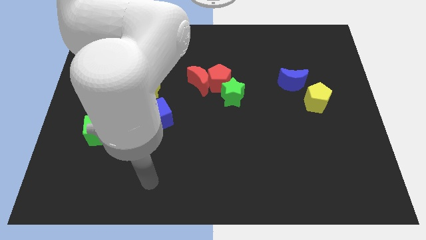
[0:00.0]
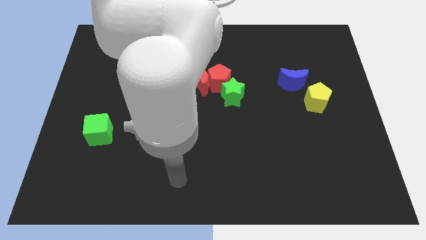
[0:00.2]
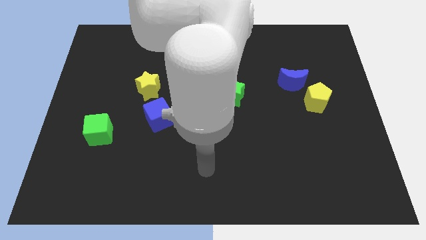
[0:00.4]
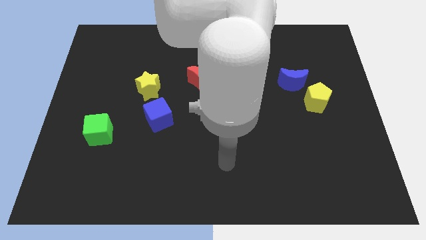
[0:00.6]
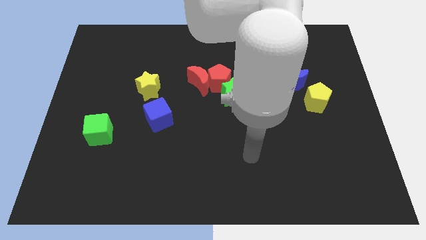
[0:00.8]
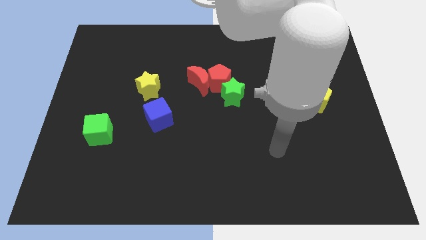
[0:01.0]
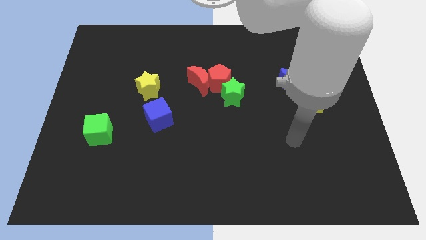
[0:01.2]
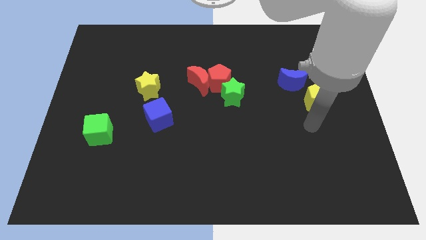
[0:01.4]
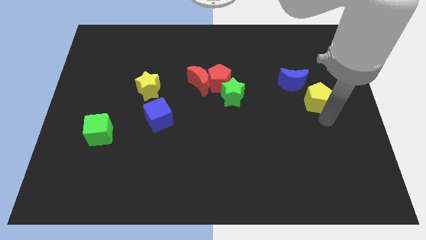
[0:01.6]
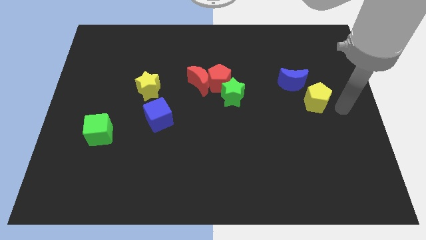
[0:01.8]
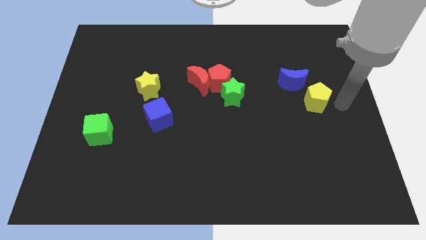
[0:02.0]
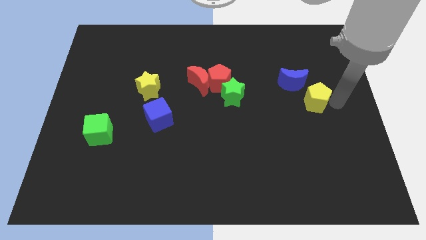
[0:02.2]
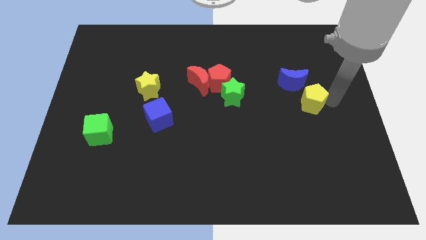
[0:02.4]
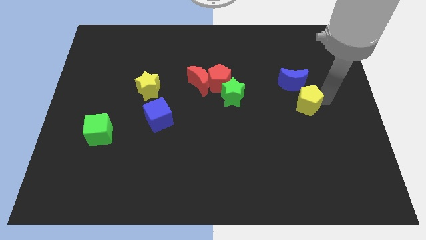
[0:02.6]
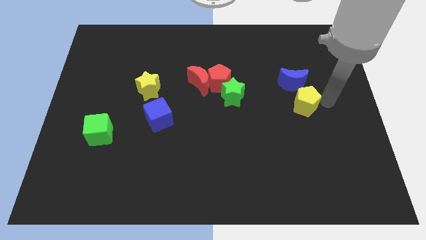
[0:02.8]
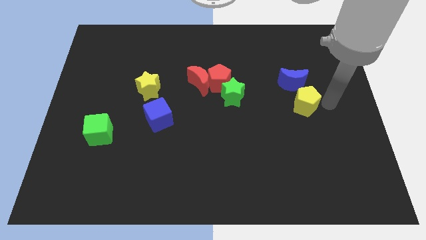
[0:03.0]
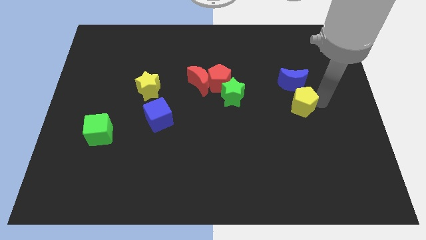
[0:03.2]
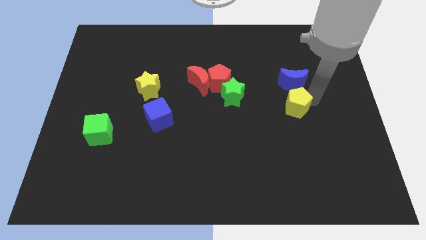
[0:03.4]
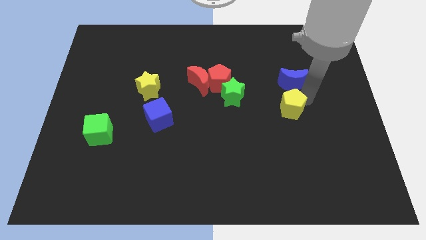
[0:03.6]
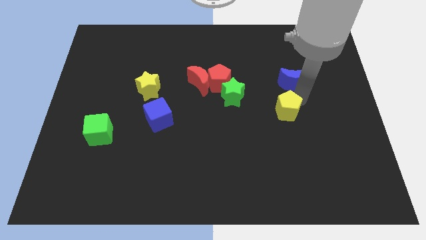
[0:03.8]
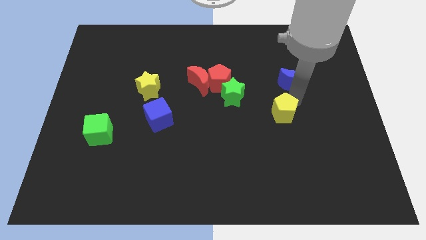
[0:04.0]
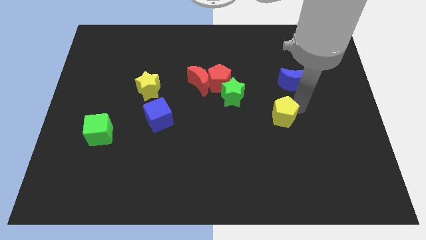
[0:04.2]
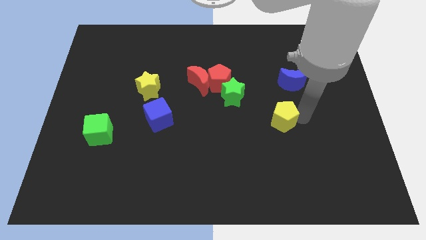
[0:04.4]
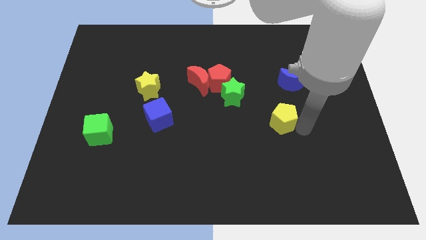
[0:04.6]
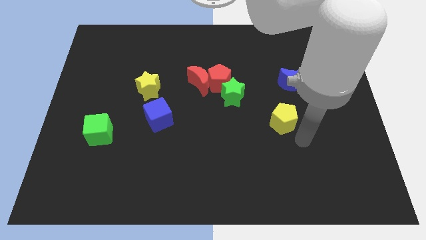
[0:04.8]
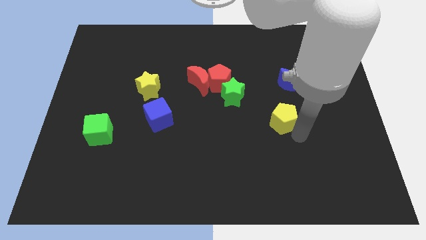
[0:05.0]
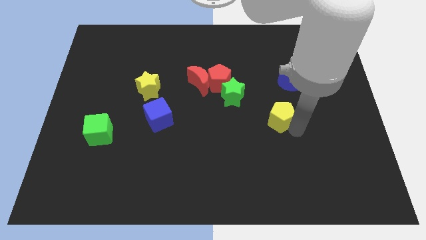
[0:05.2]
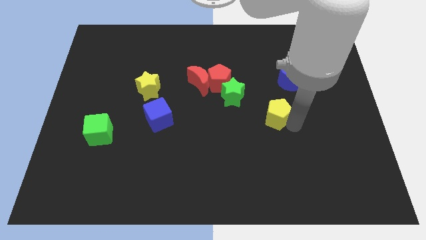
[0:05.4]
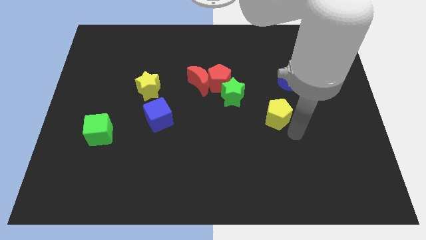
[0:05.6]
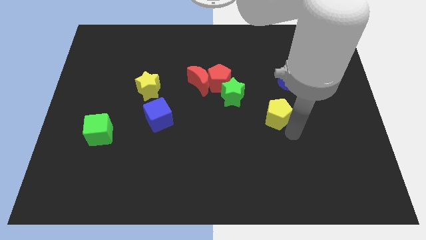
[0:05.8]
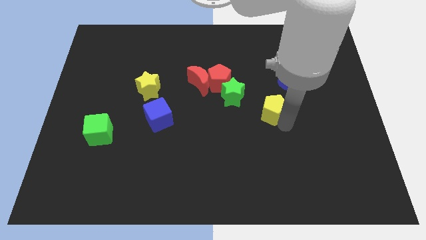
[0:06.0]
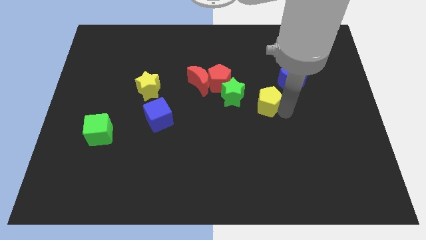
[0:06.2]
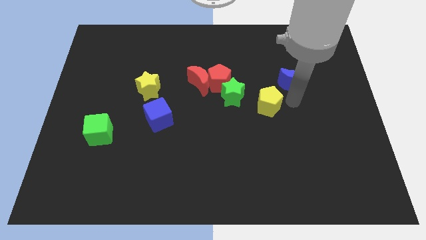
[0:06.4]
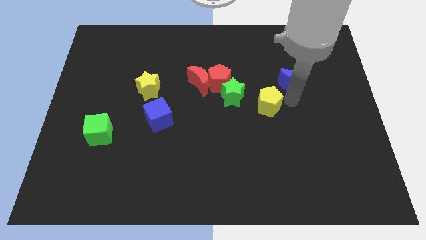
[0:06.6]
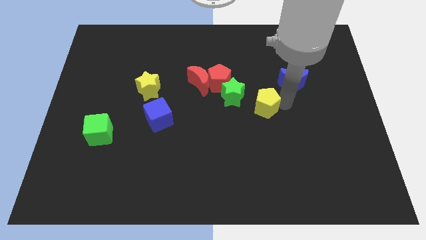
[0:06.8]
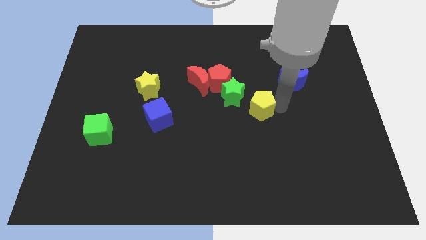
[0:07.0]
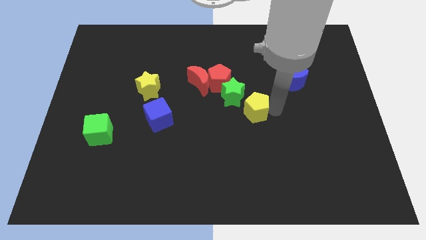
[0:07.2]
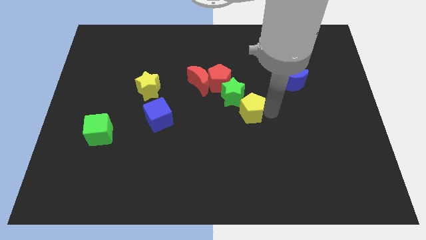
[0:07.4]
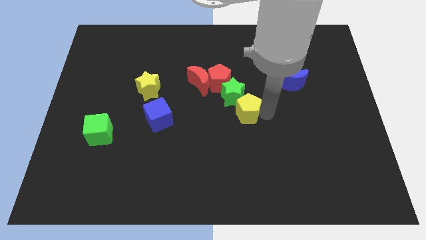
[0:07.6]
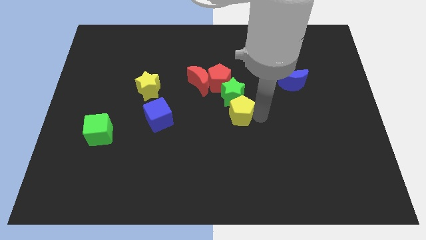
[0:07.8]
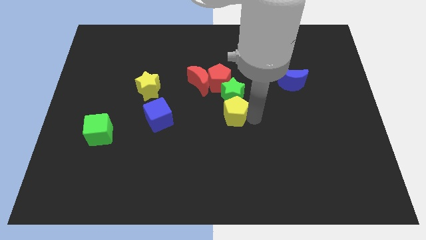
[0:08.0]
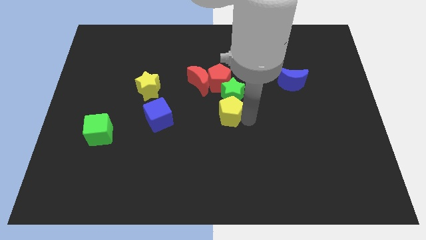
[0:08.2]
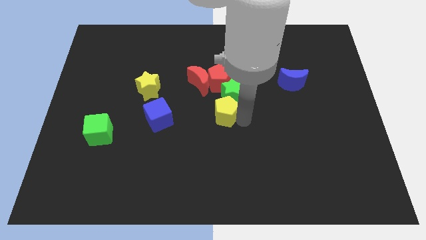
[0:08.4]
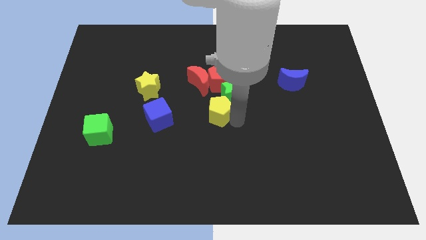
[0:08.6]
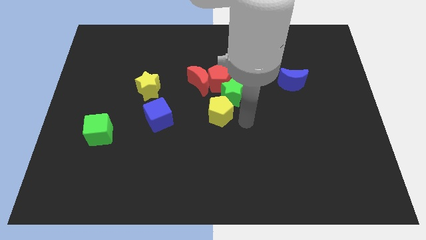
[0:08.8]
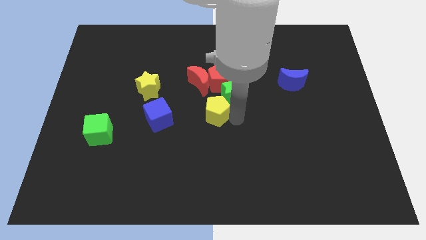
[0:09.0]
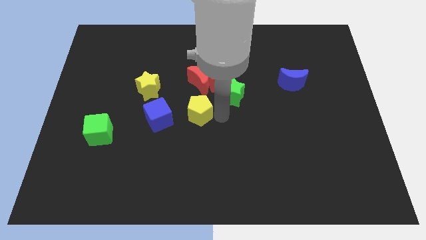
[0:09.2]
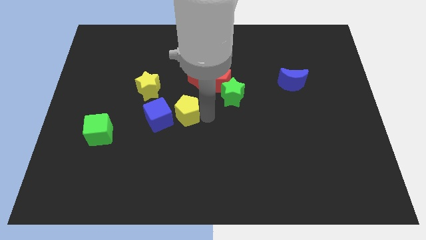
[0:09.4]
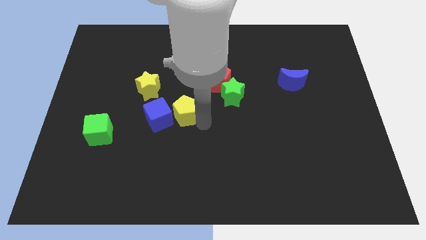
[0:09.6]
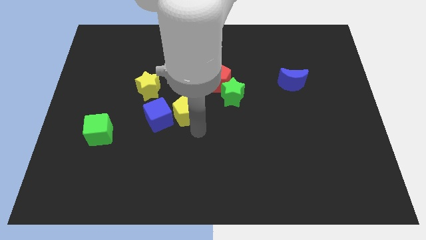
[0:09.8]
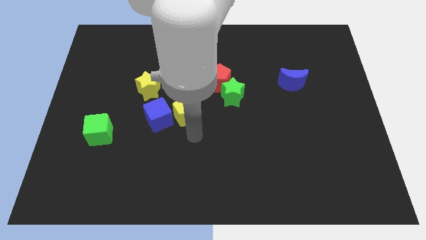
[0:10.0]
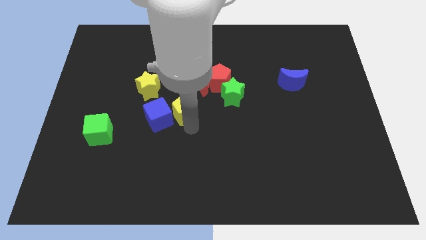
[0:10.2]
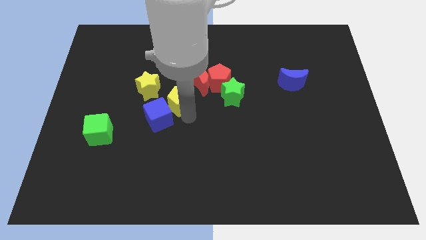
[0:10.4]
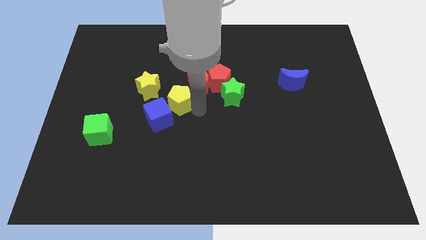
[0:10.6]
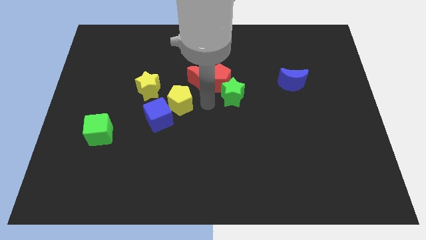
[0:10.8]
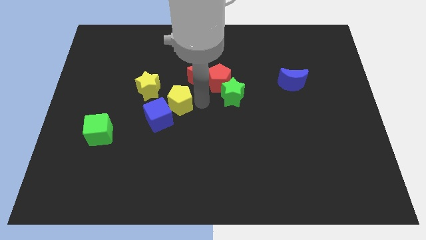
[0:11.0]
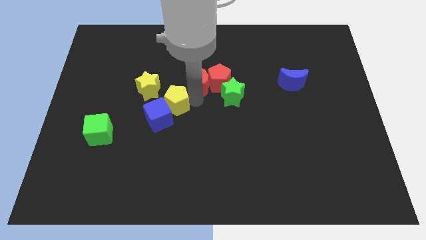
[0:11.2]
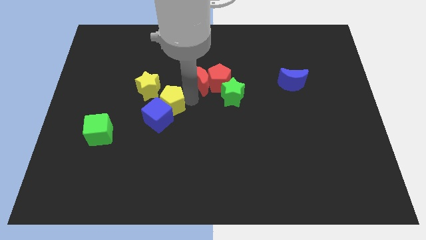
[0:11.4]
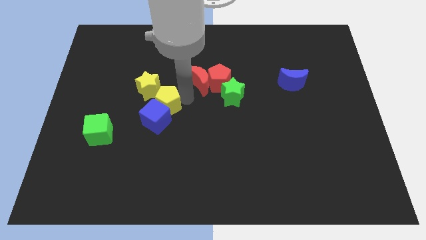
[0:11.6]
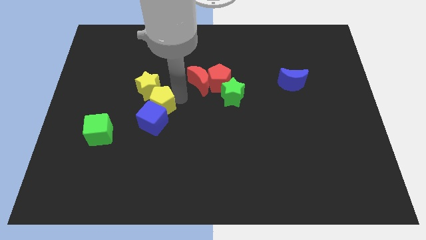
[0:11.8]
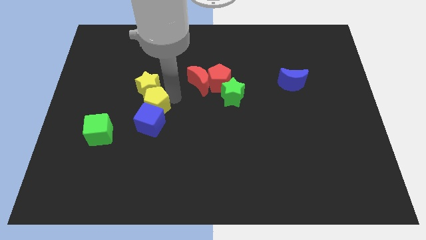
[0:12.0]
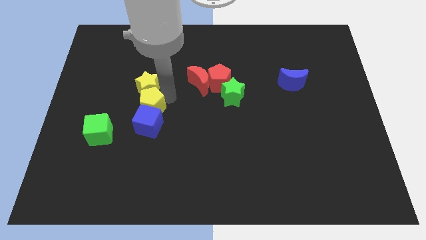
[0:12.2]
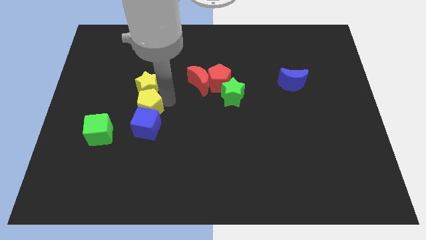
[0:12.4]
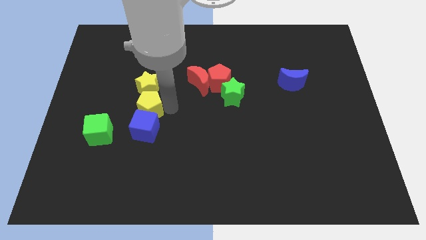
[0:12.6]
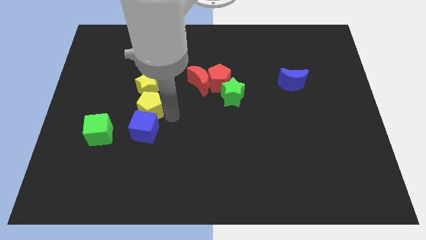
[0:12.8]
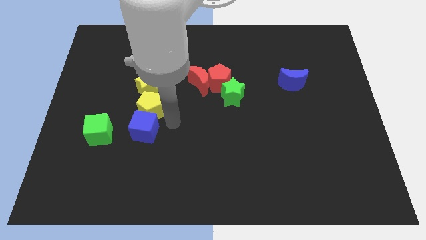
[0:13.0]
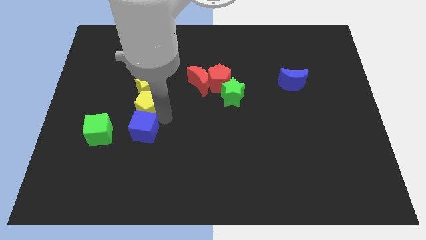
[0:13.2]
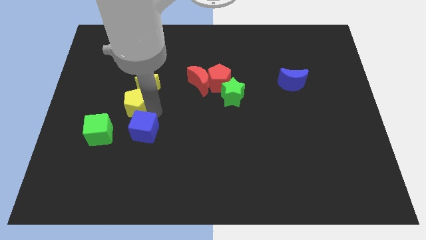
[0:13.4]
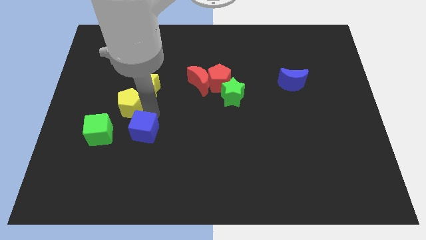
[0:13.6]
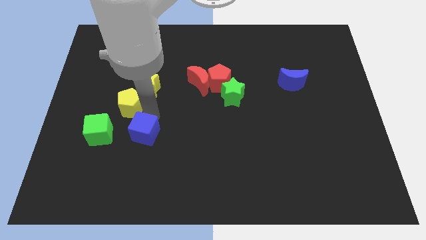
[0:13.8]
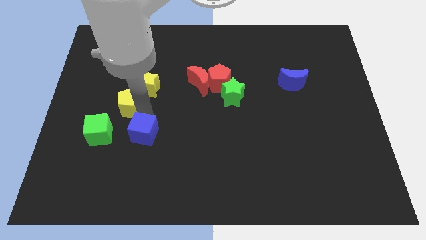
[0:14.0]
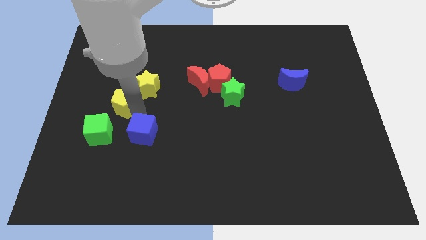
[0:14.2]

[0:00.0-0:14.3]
put the yellow pentagon to the top of the green cube

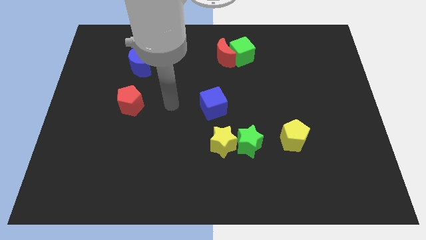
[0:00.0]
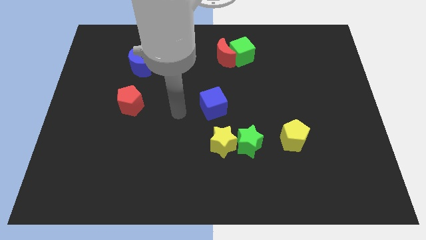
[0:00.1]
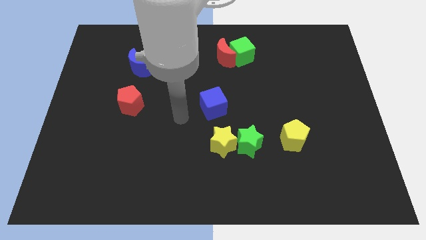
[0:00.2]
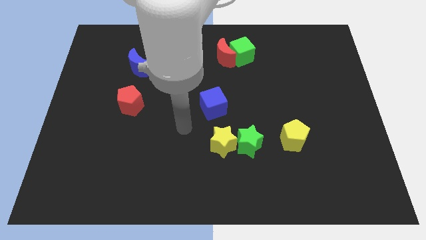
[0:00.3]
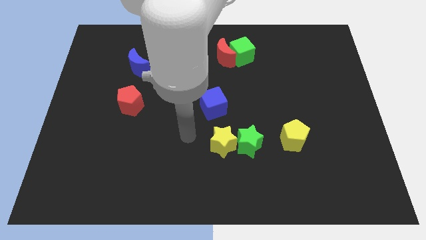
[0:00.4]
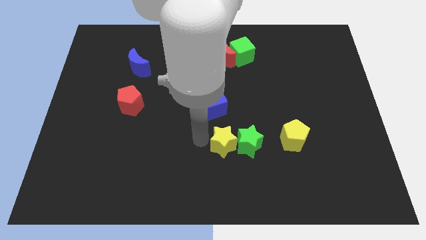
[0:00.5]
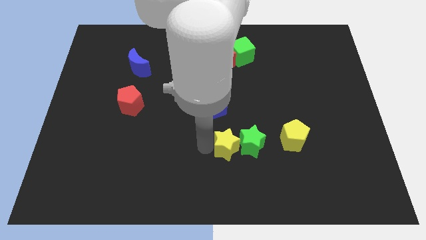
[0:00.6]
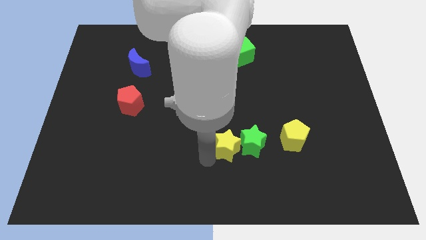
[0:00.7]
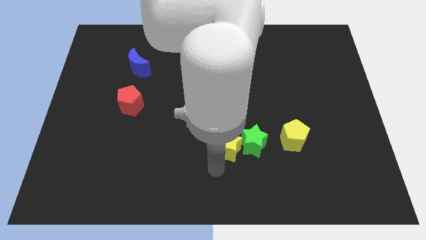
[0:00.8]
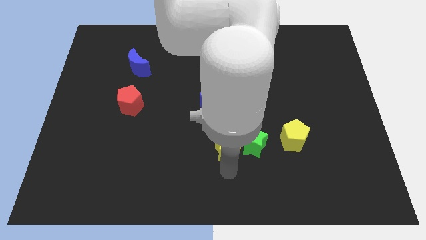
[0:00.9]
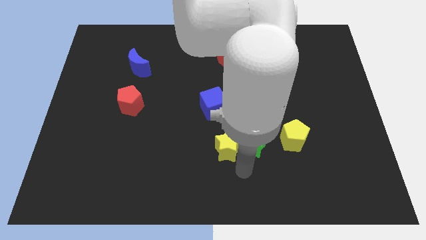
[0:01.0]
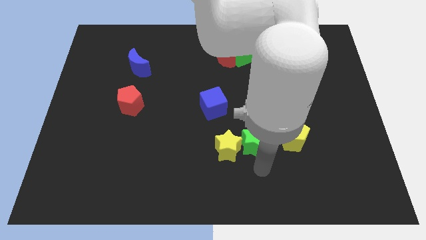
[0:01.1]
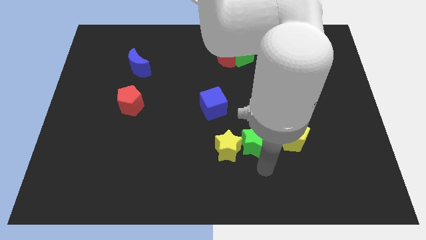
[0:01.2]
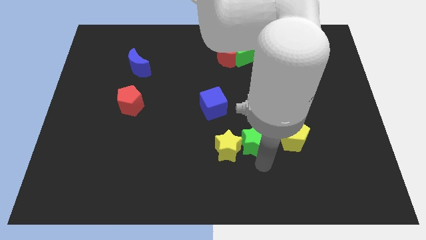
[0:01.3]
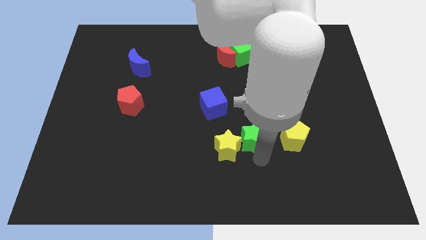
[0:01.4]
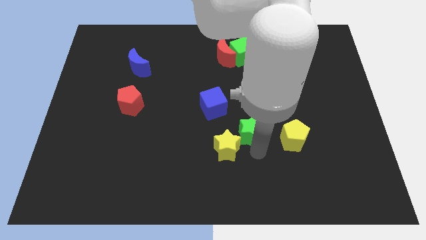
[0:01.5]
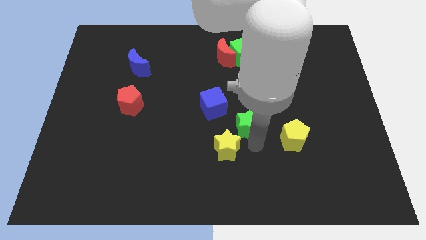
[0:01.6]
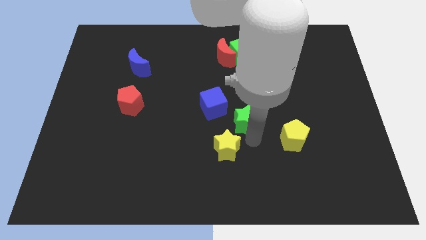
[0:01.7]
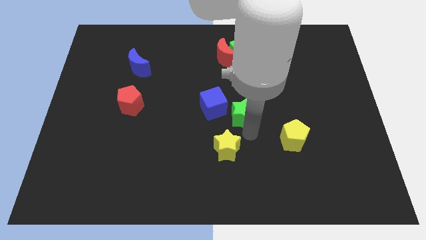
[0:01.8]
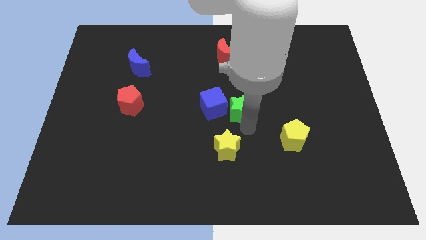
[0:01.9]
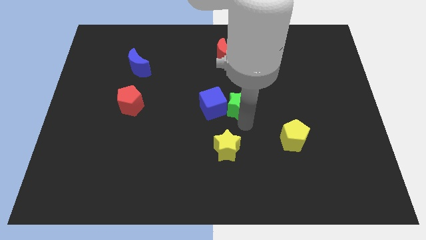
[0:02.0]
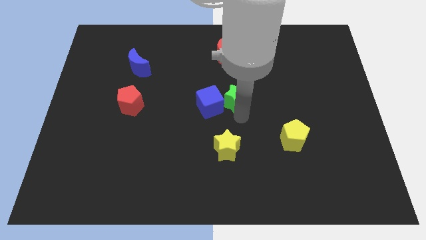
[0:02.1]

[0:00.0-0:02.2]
move the green star to the bottom of the green cube
